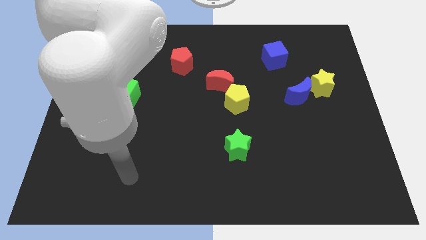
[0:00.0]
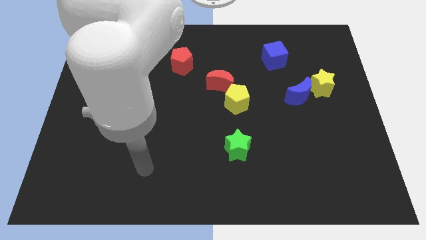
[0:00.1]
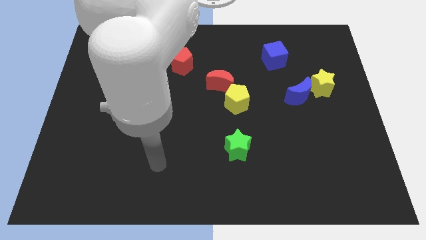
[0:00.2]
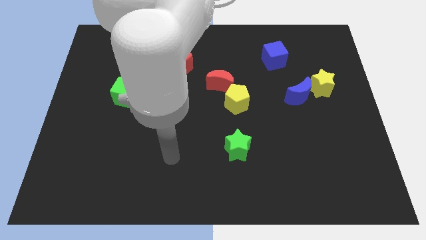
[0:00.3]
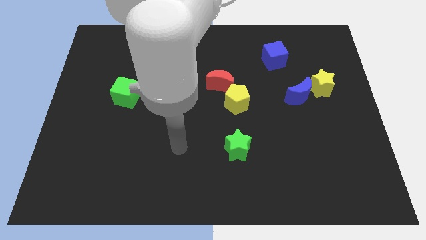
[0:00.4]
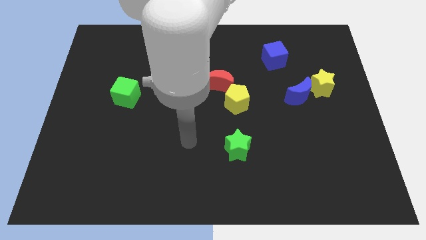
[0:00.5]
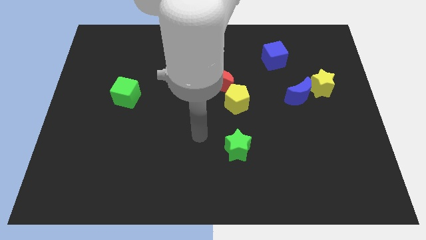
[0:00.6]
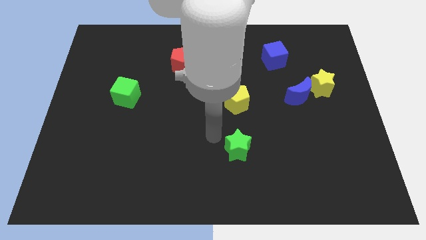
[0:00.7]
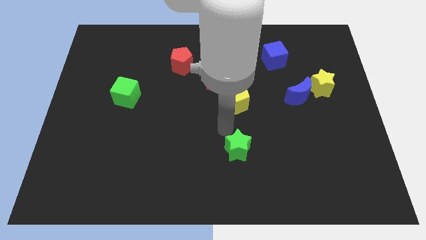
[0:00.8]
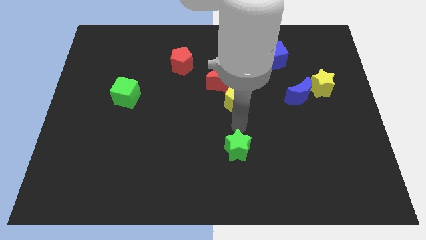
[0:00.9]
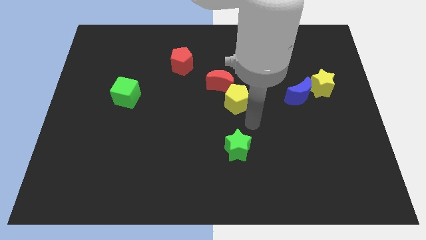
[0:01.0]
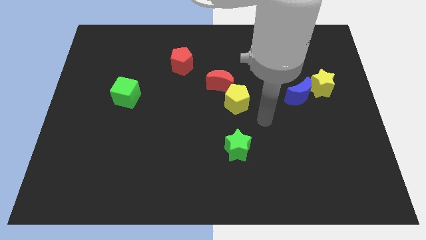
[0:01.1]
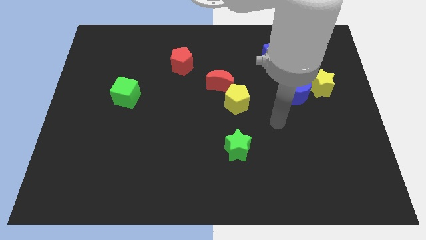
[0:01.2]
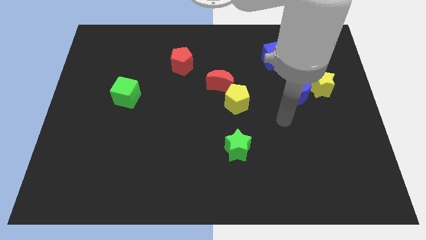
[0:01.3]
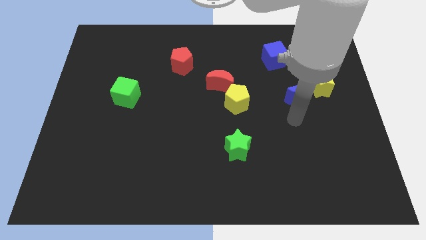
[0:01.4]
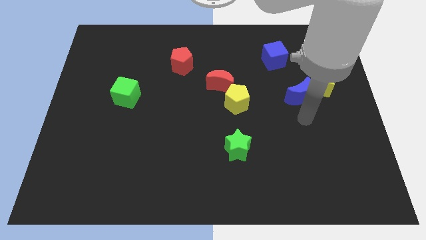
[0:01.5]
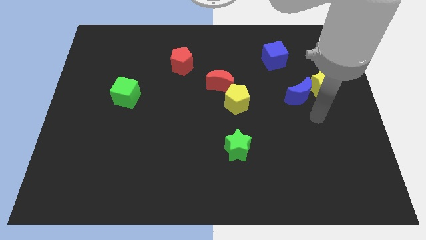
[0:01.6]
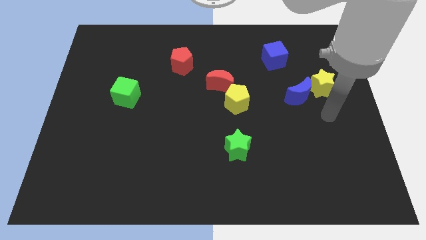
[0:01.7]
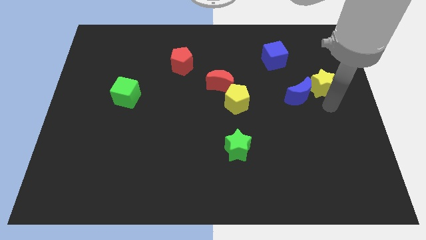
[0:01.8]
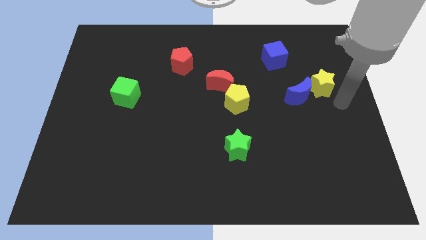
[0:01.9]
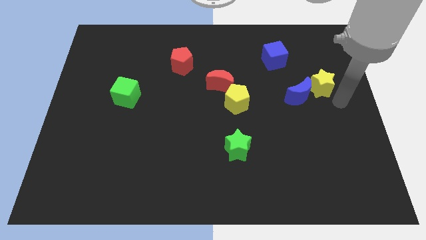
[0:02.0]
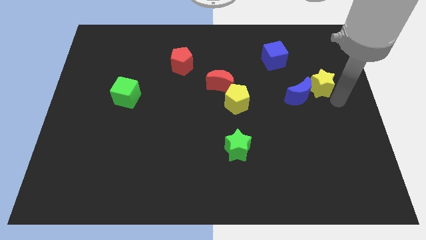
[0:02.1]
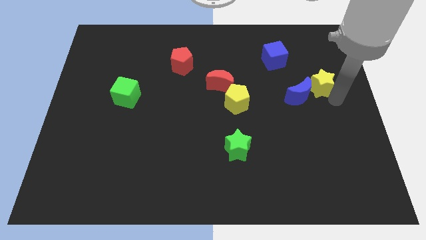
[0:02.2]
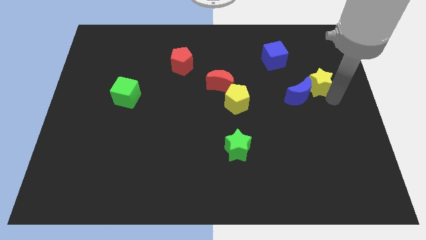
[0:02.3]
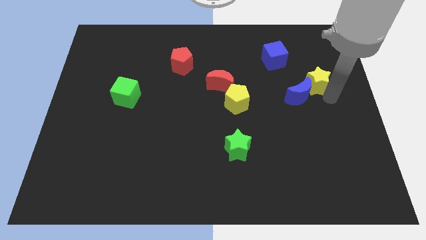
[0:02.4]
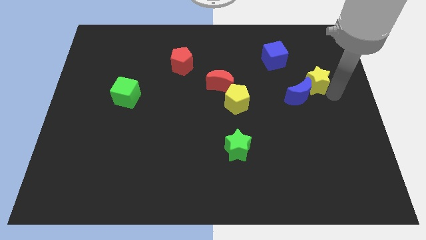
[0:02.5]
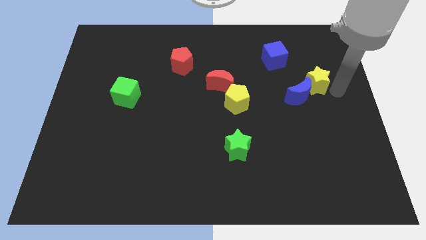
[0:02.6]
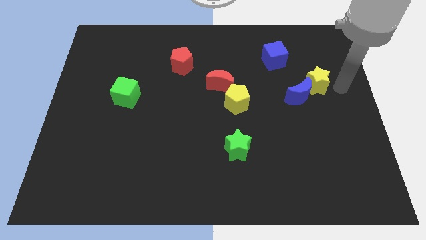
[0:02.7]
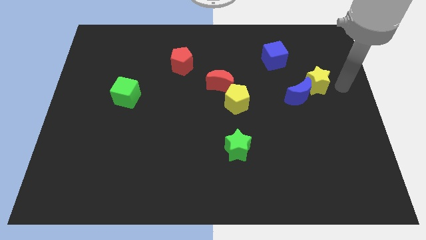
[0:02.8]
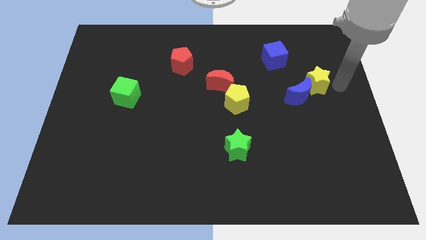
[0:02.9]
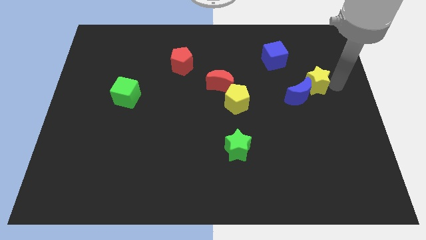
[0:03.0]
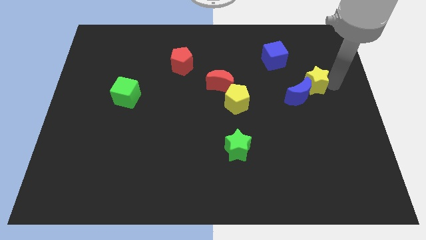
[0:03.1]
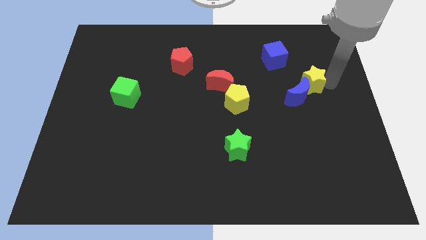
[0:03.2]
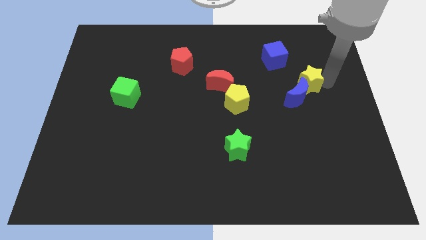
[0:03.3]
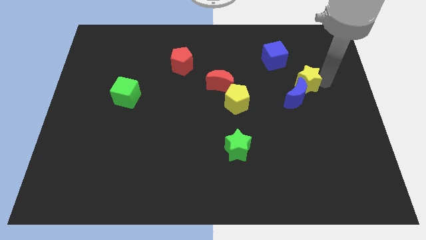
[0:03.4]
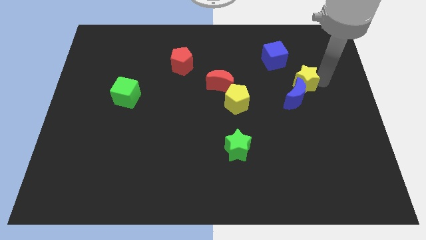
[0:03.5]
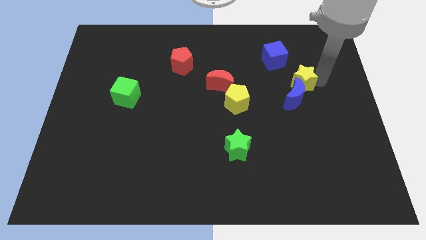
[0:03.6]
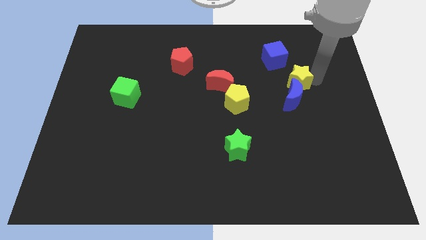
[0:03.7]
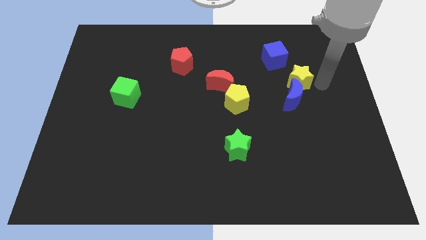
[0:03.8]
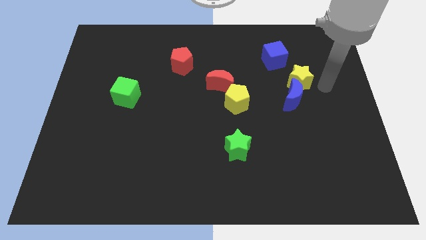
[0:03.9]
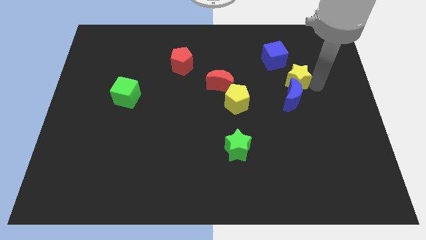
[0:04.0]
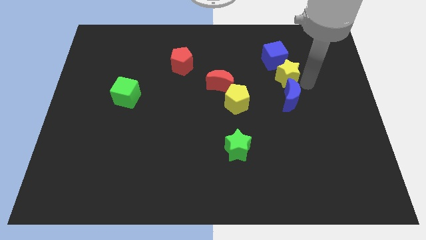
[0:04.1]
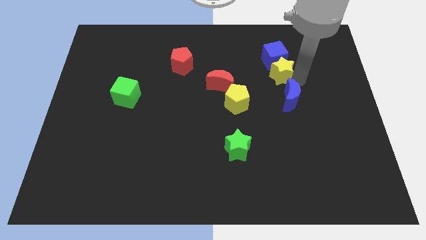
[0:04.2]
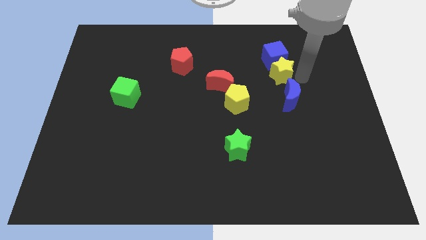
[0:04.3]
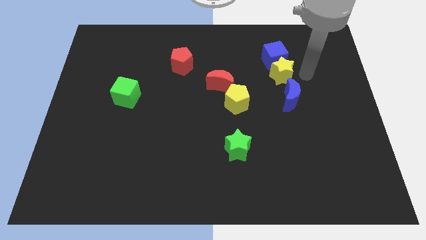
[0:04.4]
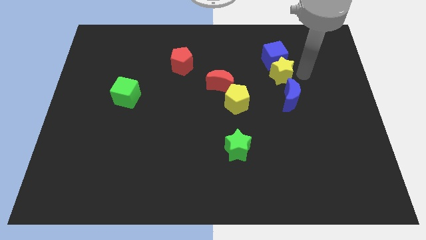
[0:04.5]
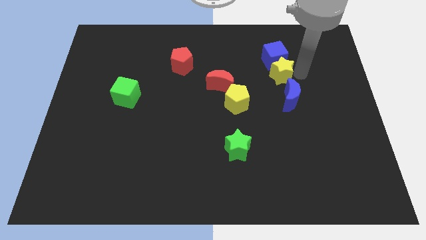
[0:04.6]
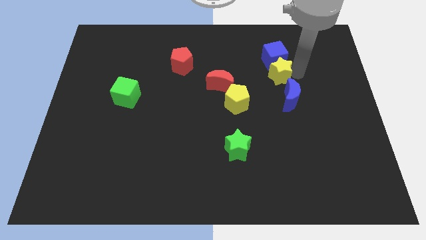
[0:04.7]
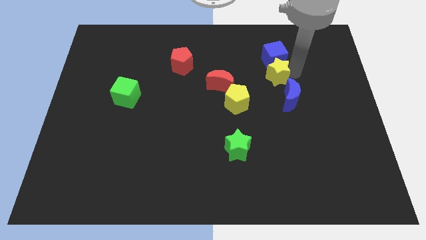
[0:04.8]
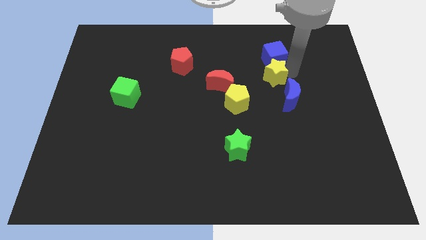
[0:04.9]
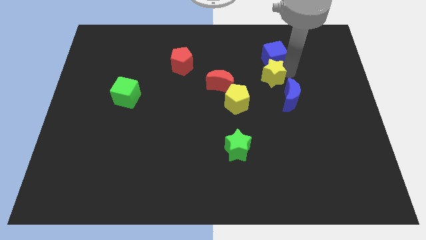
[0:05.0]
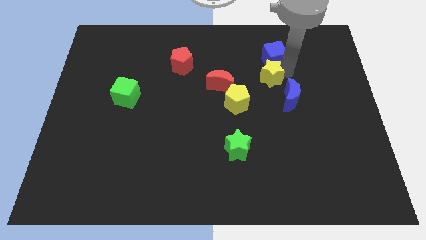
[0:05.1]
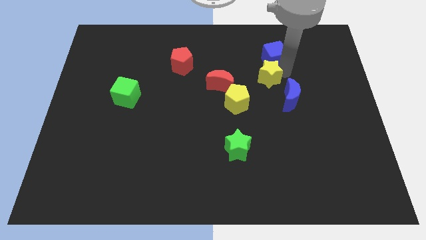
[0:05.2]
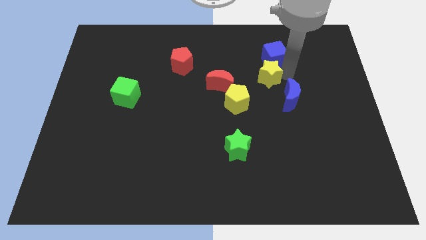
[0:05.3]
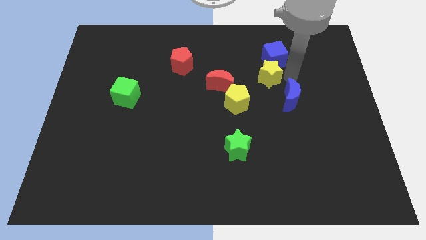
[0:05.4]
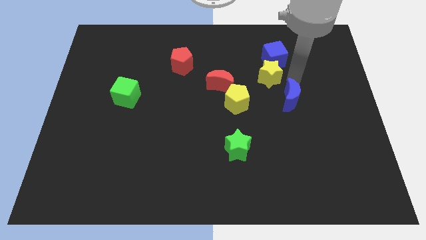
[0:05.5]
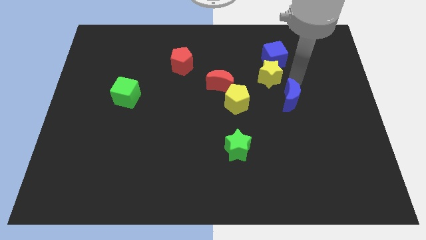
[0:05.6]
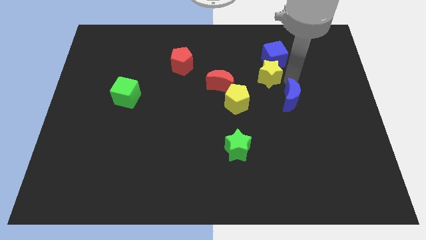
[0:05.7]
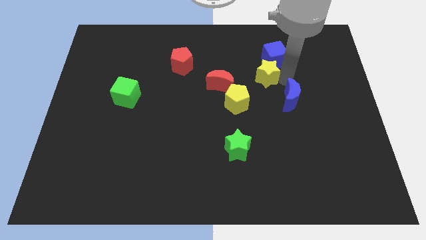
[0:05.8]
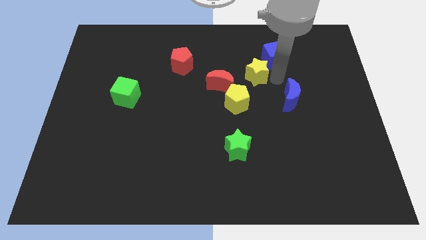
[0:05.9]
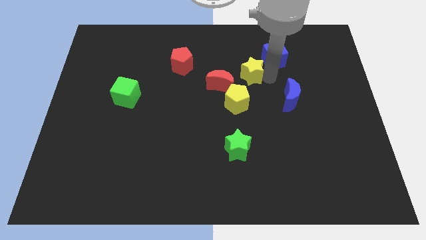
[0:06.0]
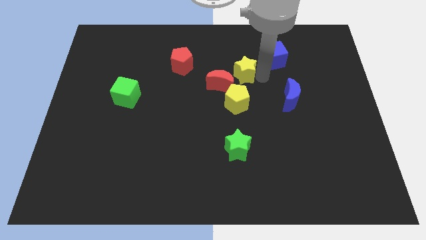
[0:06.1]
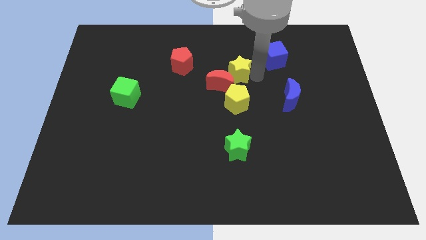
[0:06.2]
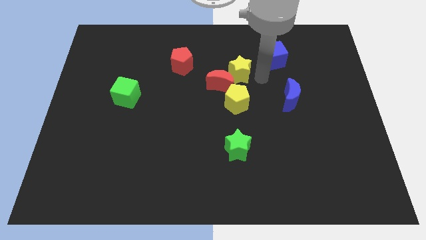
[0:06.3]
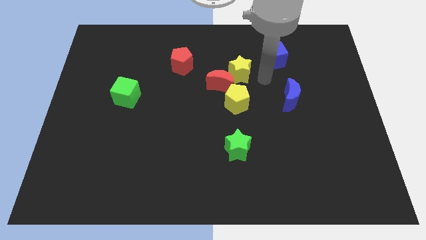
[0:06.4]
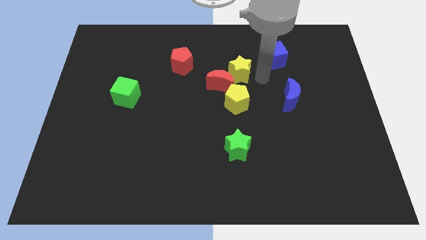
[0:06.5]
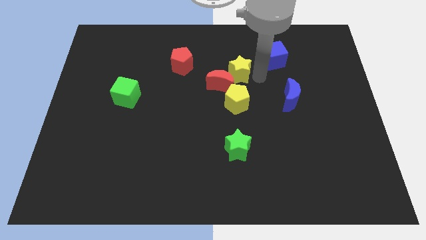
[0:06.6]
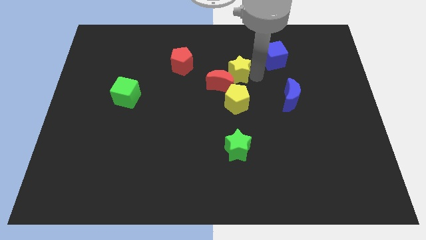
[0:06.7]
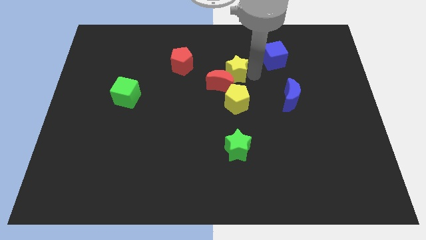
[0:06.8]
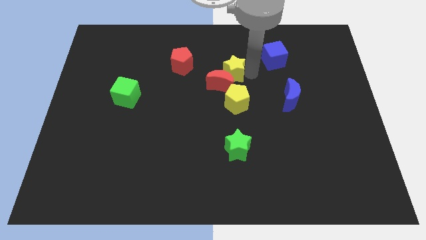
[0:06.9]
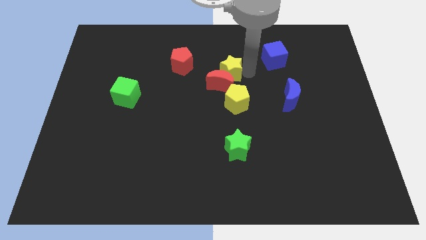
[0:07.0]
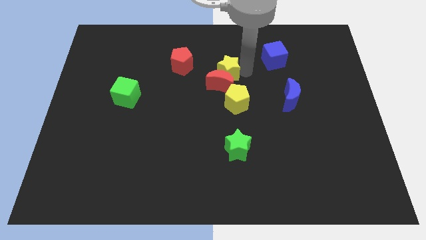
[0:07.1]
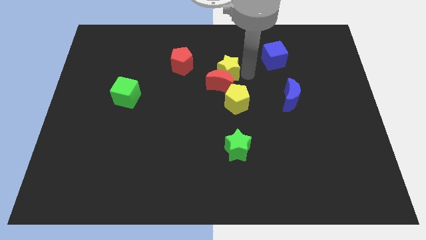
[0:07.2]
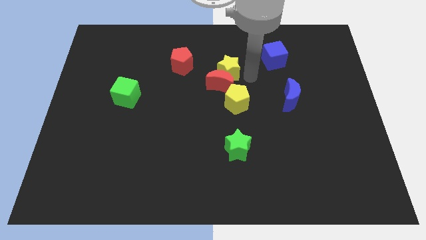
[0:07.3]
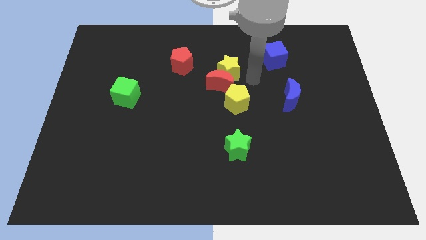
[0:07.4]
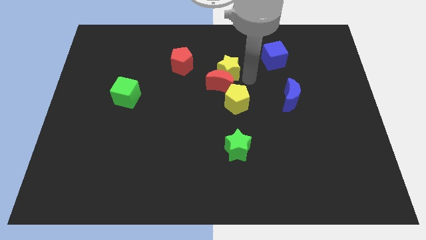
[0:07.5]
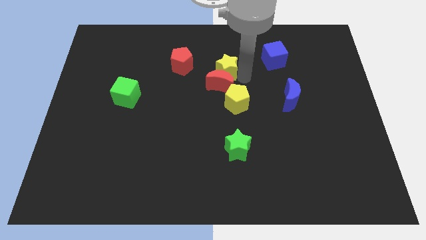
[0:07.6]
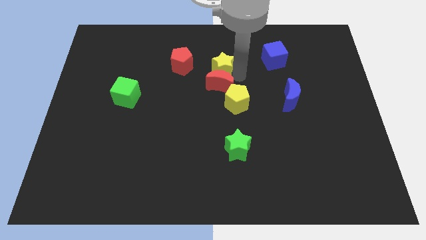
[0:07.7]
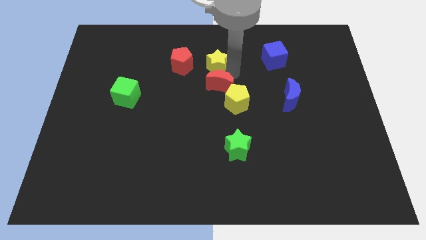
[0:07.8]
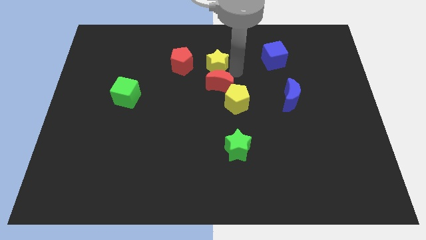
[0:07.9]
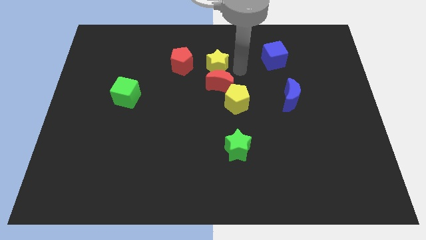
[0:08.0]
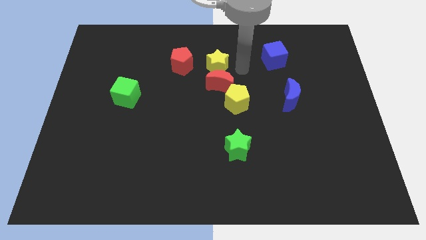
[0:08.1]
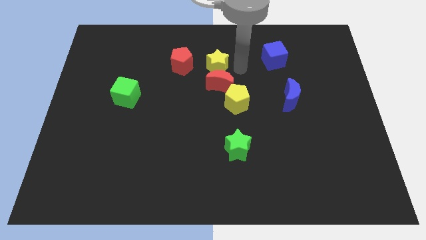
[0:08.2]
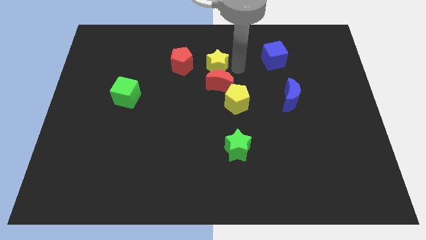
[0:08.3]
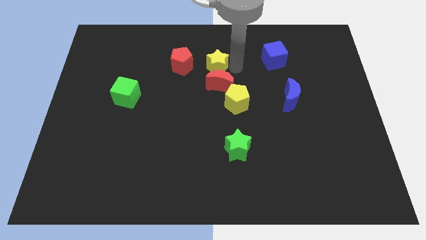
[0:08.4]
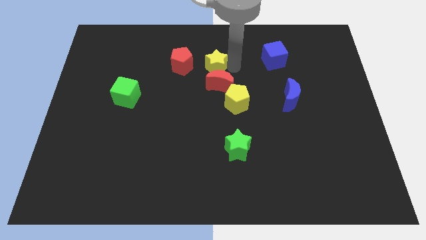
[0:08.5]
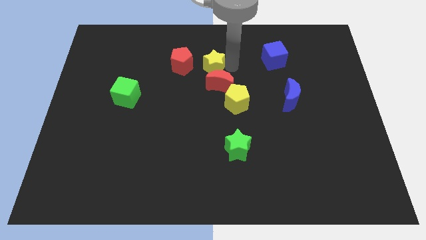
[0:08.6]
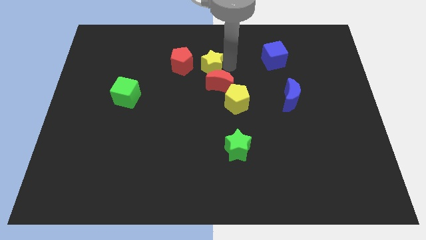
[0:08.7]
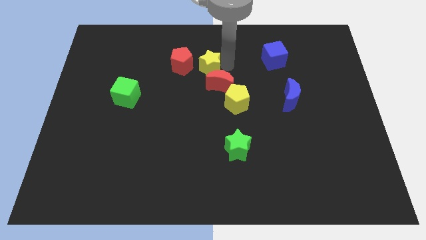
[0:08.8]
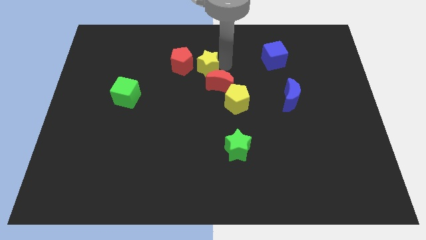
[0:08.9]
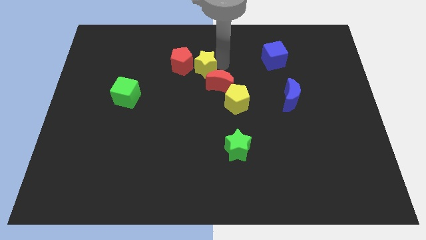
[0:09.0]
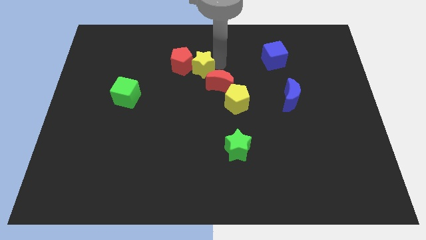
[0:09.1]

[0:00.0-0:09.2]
move the yellow star to the red pentagon
